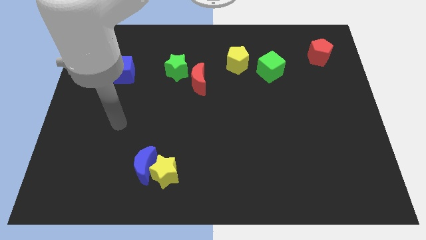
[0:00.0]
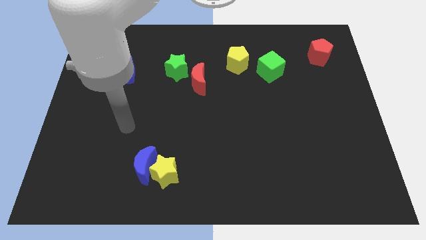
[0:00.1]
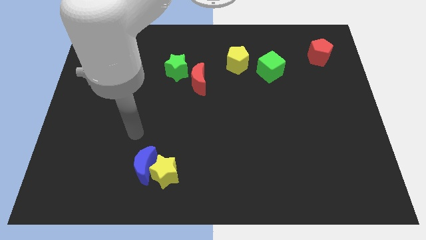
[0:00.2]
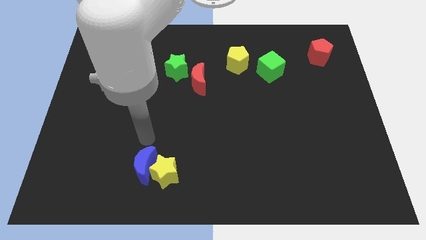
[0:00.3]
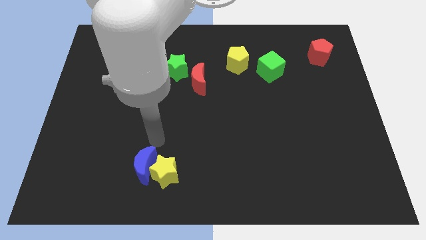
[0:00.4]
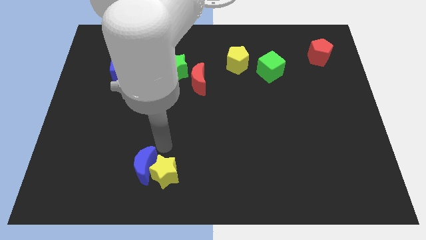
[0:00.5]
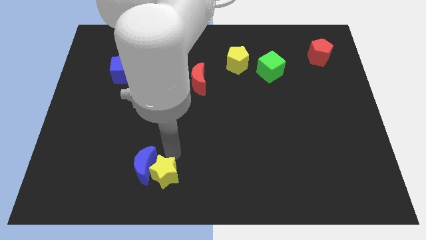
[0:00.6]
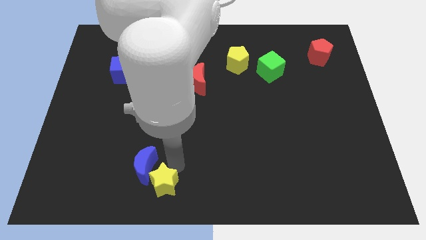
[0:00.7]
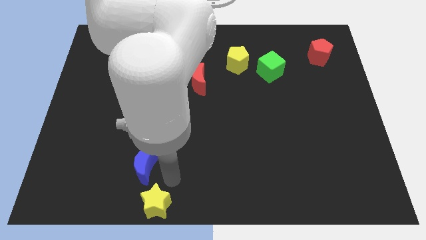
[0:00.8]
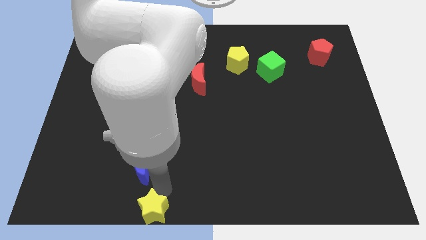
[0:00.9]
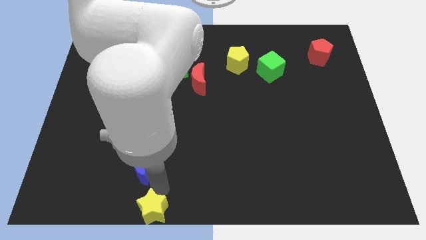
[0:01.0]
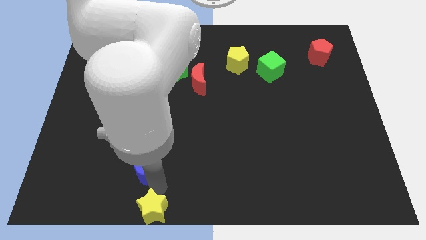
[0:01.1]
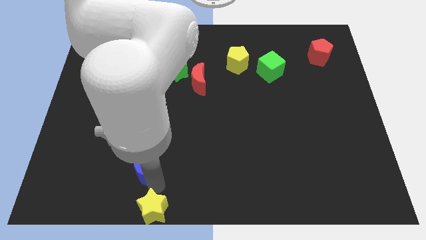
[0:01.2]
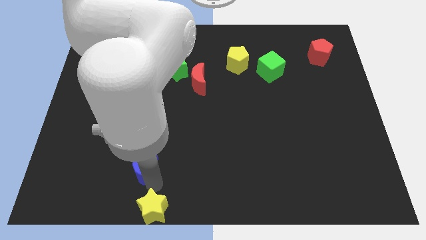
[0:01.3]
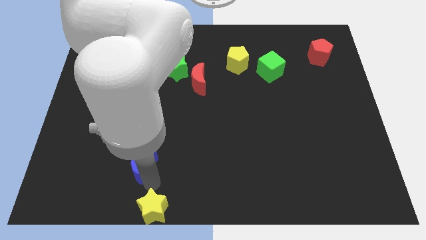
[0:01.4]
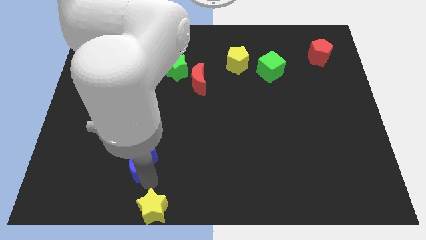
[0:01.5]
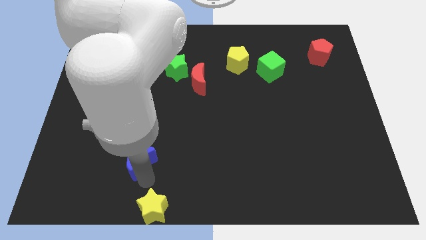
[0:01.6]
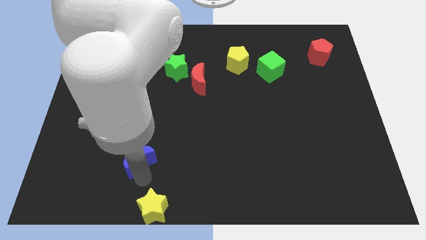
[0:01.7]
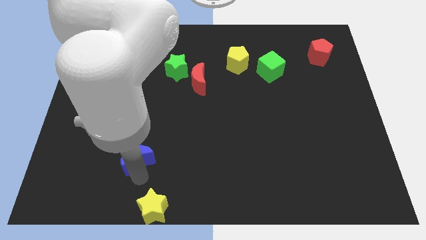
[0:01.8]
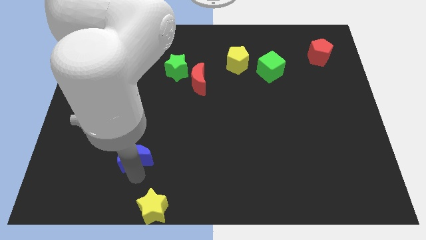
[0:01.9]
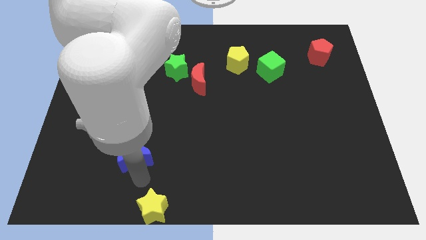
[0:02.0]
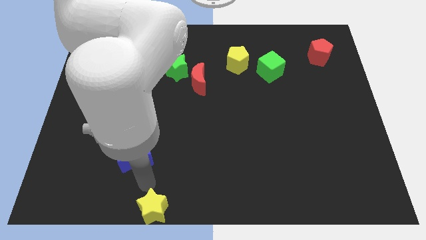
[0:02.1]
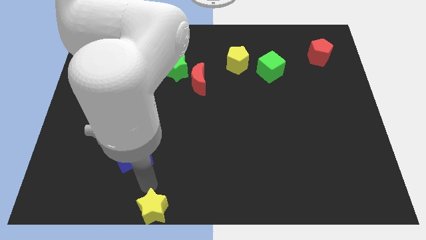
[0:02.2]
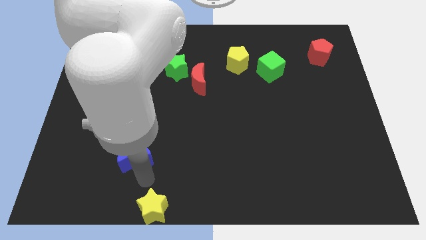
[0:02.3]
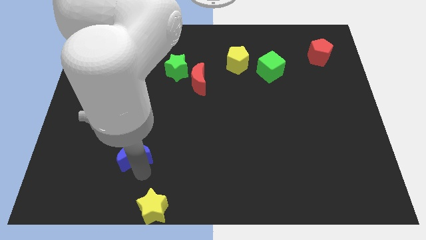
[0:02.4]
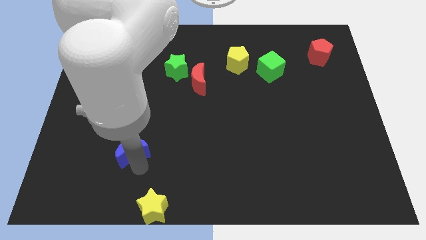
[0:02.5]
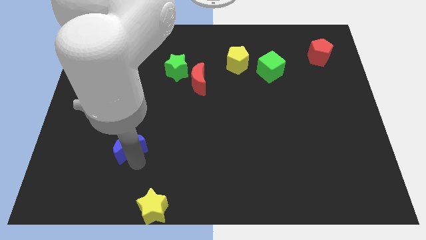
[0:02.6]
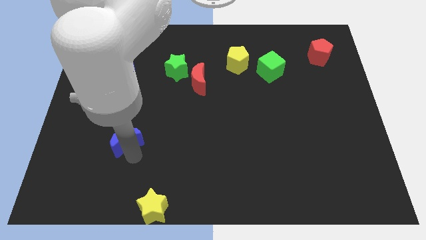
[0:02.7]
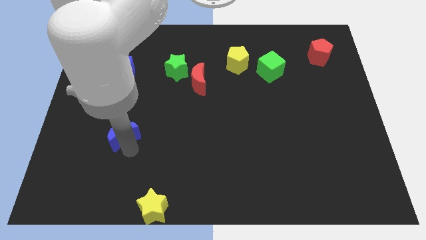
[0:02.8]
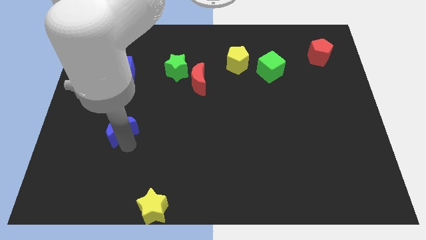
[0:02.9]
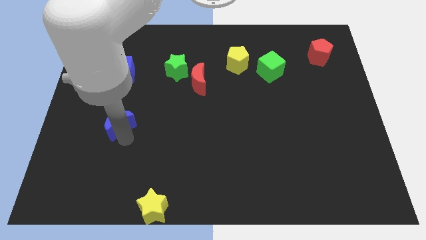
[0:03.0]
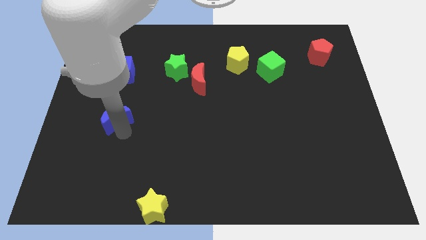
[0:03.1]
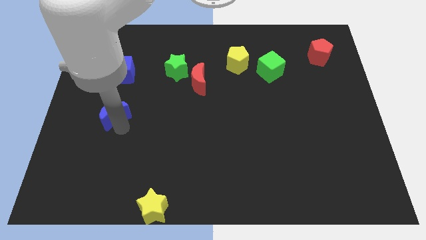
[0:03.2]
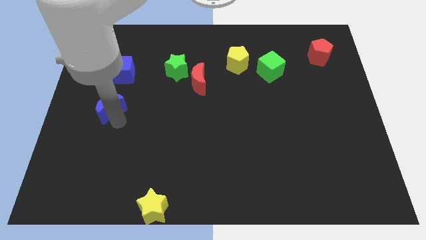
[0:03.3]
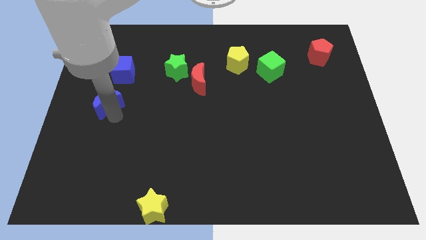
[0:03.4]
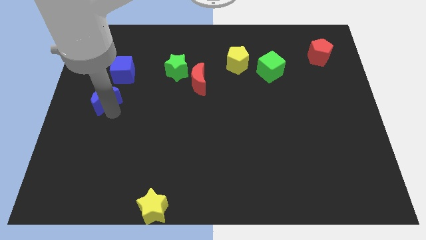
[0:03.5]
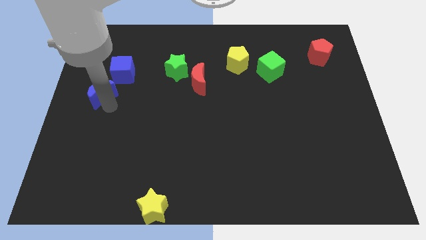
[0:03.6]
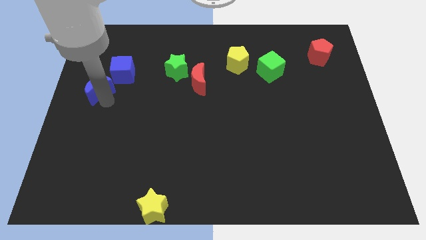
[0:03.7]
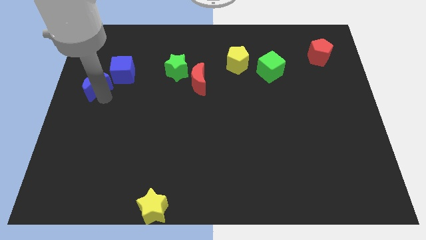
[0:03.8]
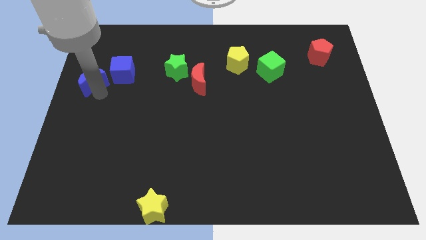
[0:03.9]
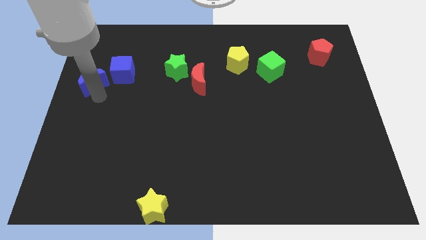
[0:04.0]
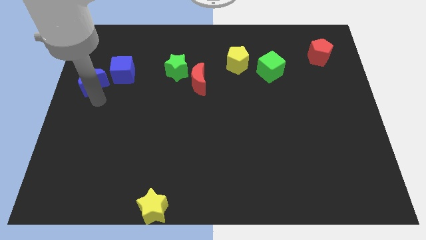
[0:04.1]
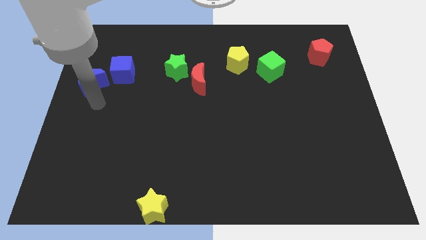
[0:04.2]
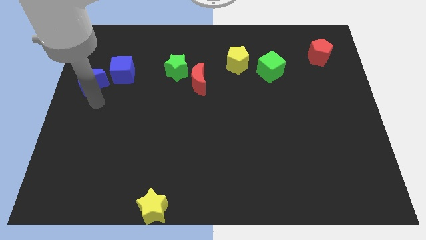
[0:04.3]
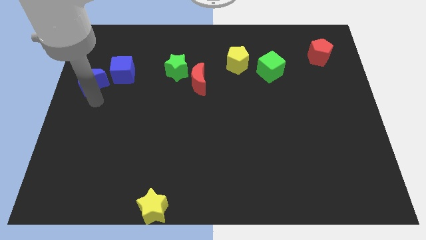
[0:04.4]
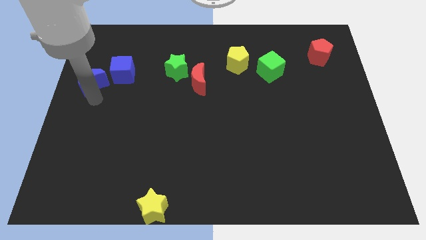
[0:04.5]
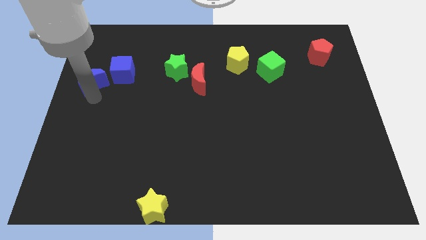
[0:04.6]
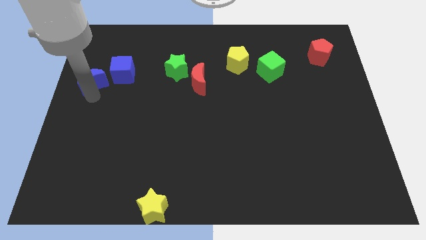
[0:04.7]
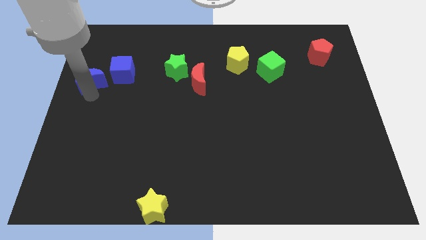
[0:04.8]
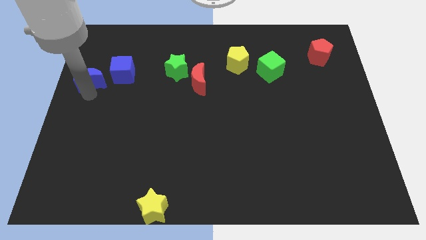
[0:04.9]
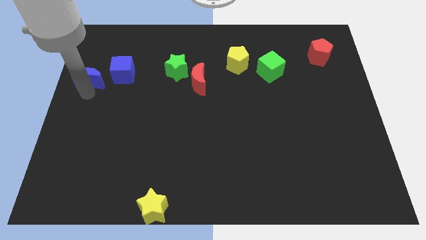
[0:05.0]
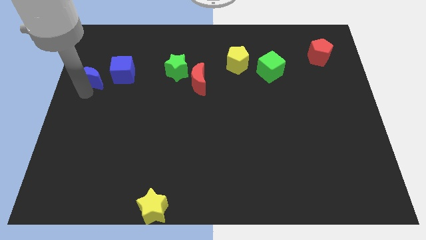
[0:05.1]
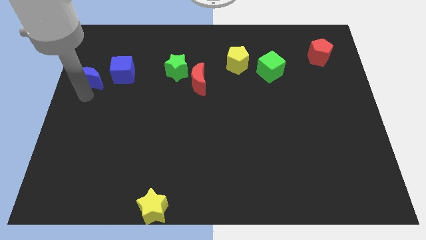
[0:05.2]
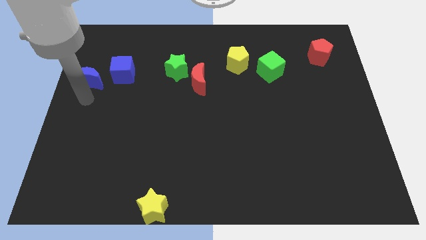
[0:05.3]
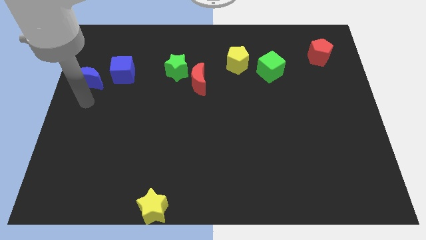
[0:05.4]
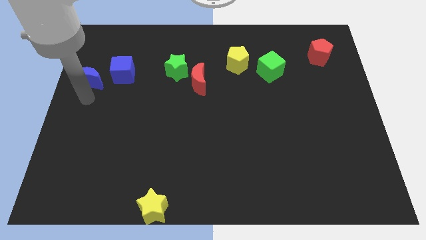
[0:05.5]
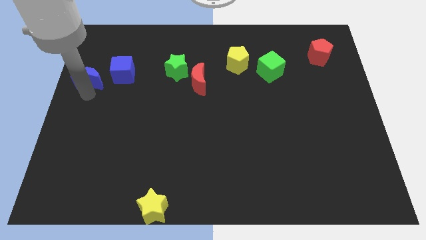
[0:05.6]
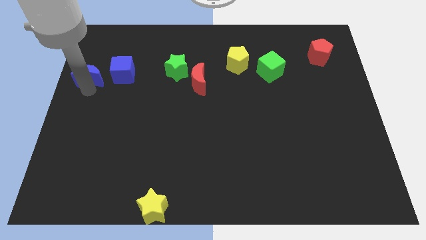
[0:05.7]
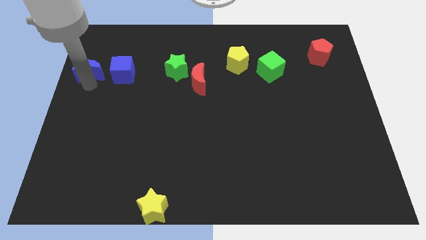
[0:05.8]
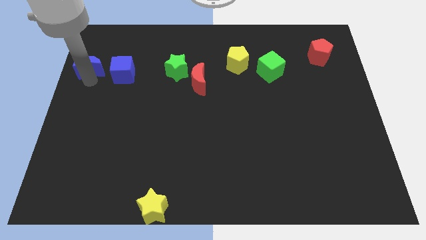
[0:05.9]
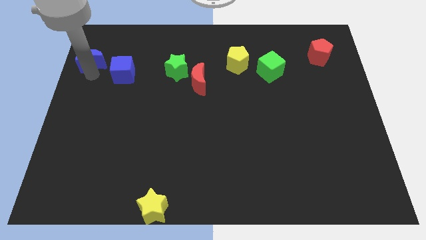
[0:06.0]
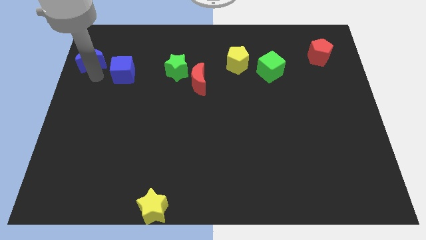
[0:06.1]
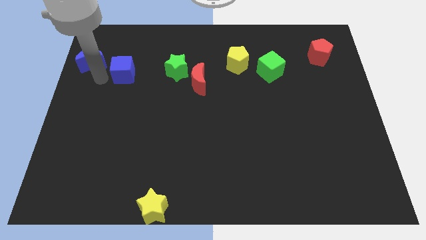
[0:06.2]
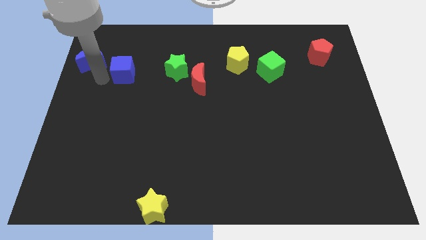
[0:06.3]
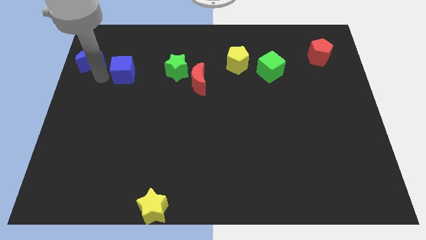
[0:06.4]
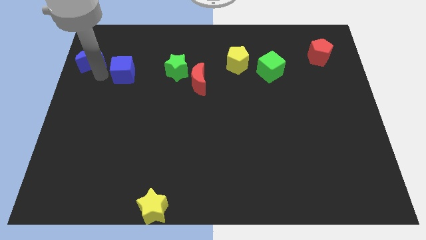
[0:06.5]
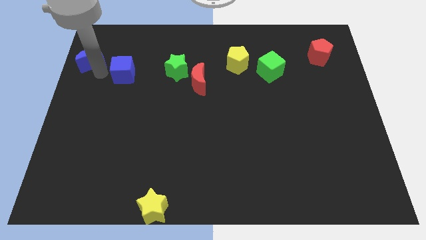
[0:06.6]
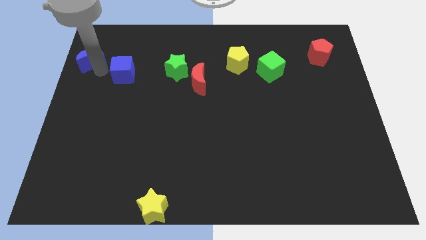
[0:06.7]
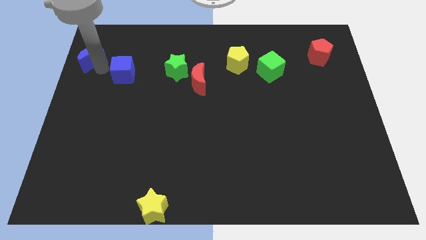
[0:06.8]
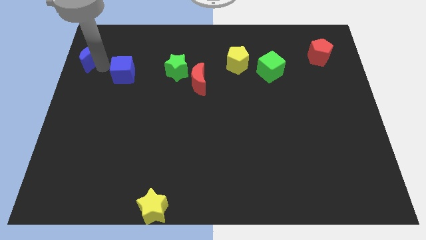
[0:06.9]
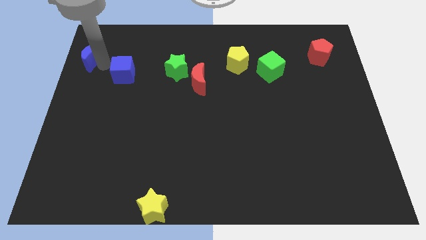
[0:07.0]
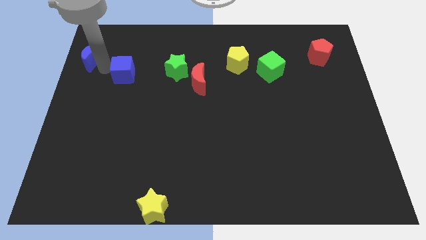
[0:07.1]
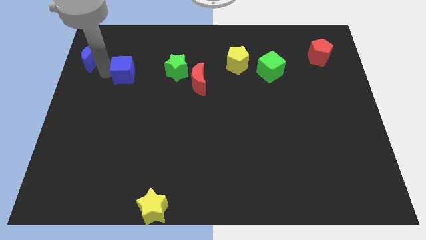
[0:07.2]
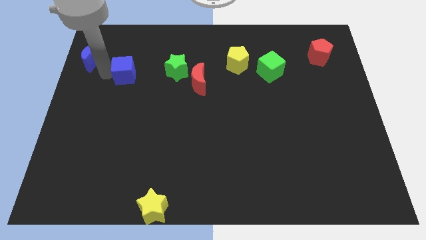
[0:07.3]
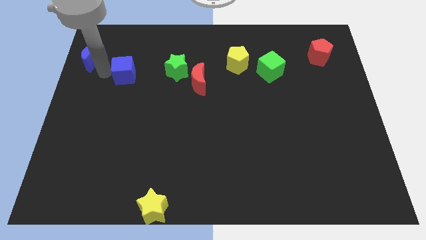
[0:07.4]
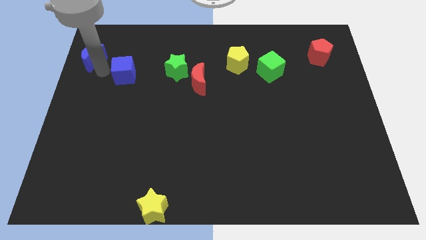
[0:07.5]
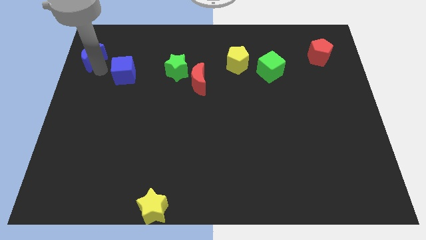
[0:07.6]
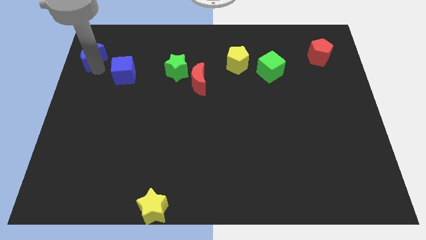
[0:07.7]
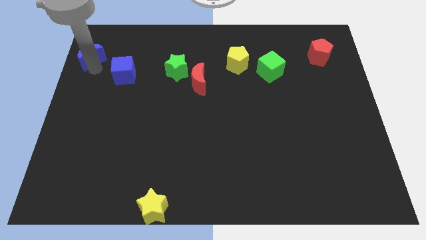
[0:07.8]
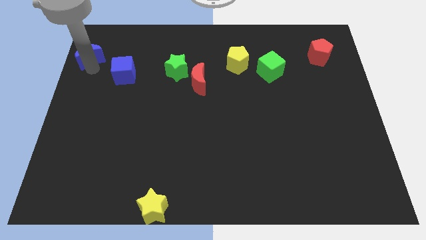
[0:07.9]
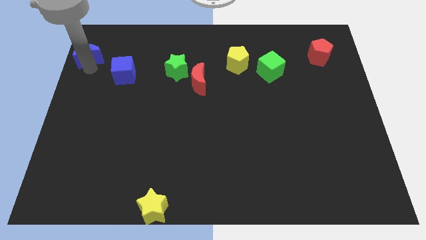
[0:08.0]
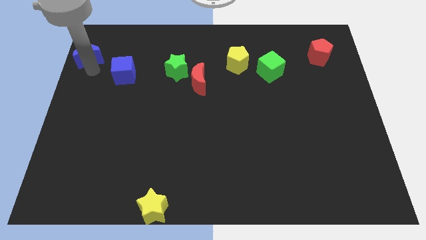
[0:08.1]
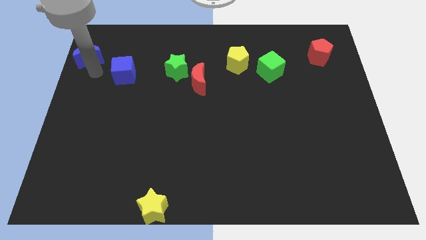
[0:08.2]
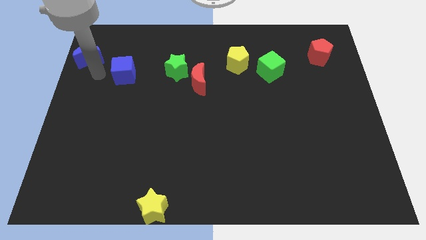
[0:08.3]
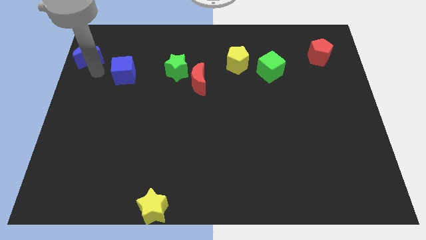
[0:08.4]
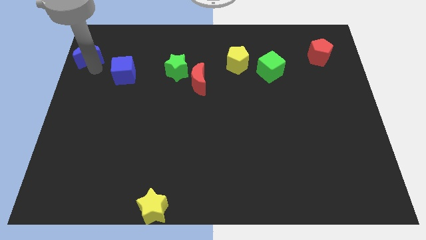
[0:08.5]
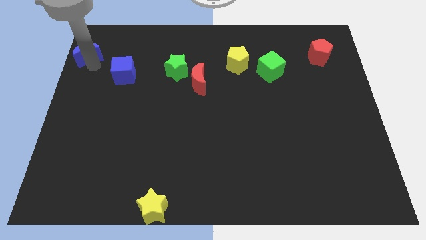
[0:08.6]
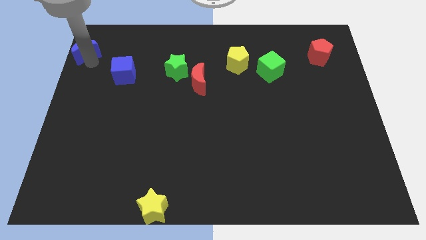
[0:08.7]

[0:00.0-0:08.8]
put the blue moon to the top left corner
